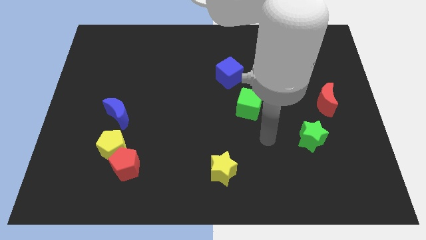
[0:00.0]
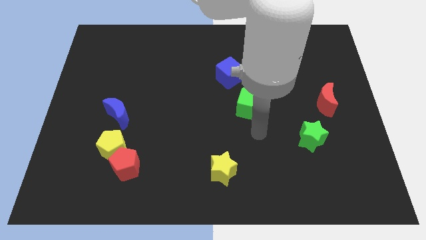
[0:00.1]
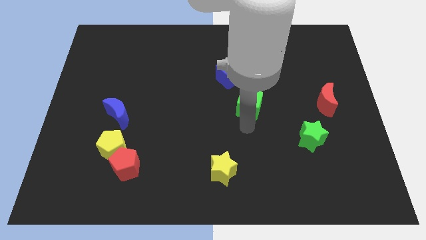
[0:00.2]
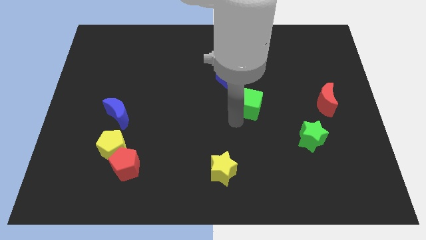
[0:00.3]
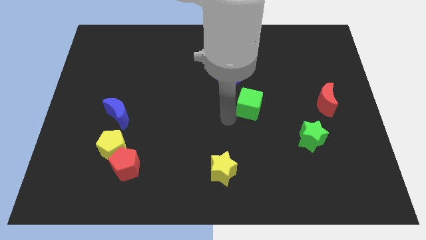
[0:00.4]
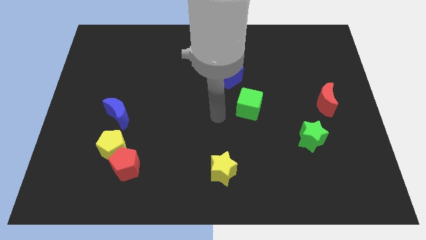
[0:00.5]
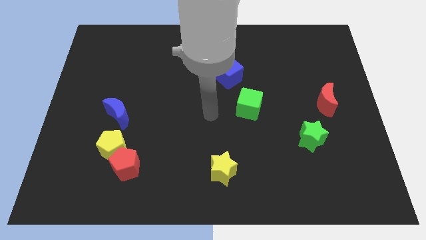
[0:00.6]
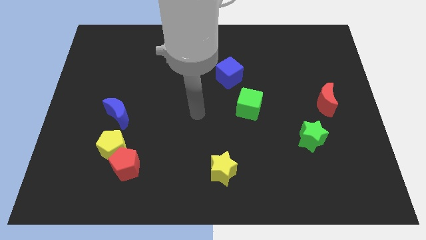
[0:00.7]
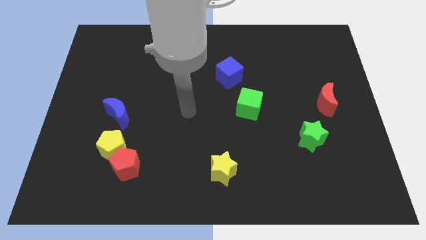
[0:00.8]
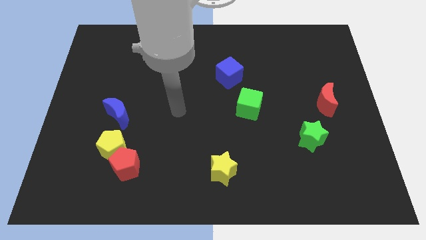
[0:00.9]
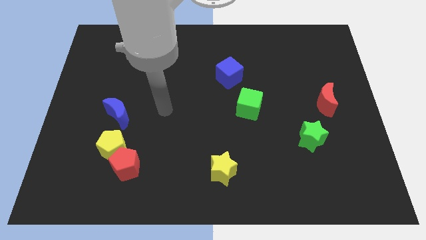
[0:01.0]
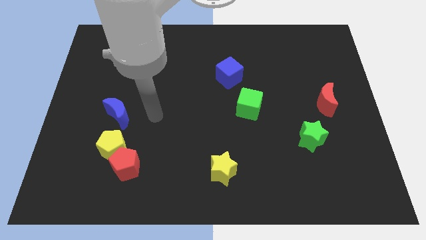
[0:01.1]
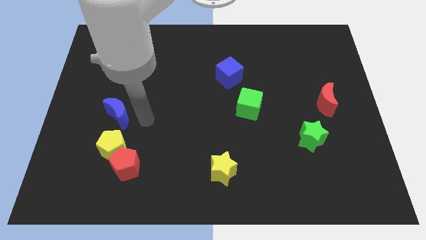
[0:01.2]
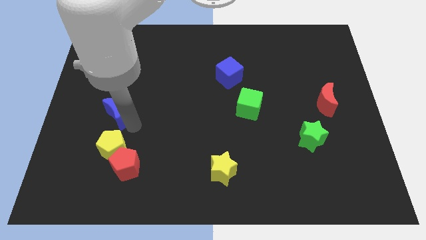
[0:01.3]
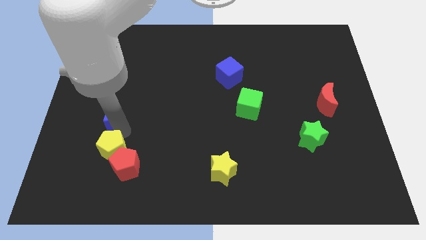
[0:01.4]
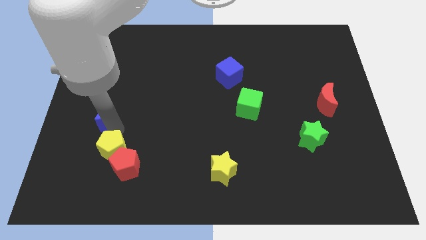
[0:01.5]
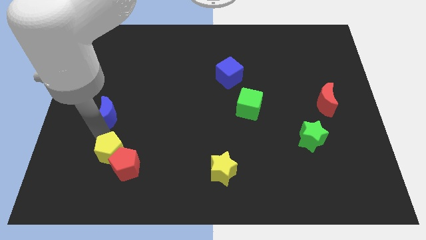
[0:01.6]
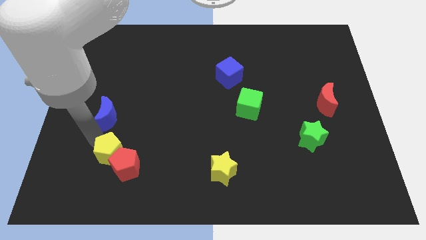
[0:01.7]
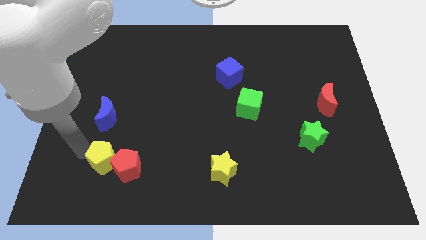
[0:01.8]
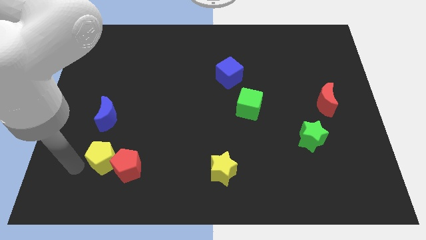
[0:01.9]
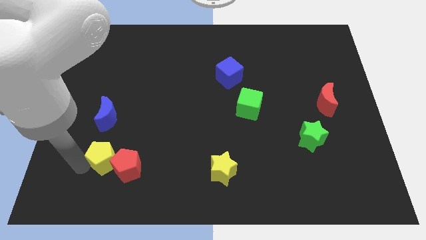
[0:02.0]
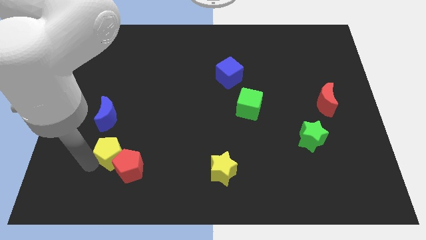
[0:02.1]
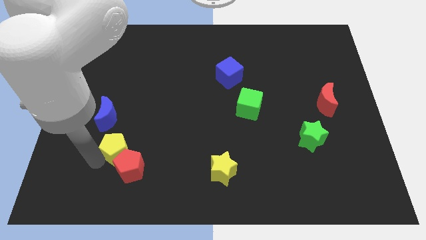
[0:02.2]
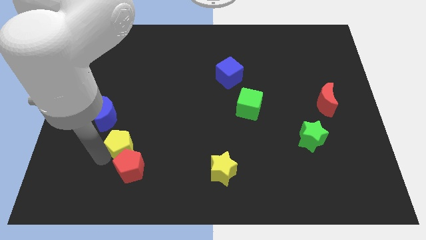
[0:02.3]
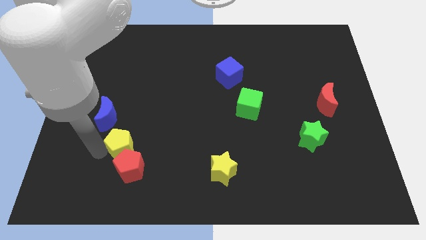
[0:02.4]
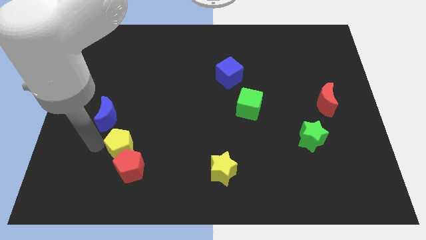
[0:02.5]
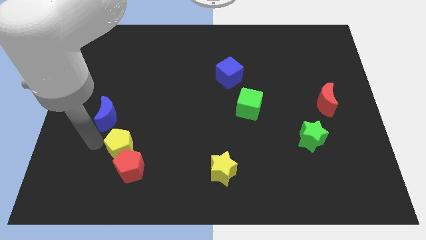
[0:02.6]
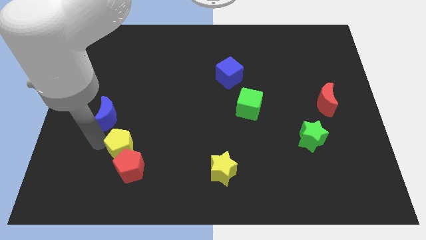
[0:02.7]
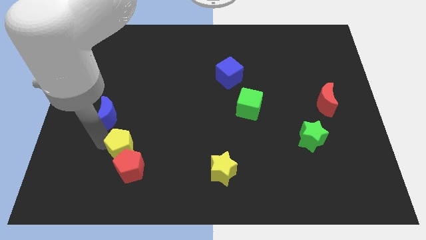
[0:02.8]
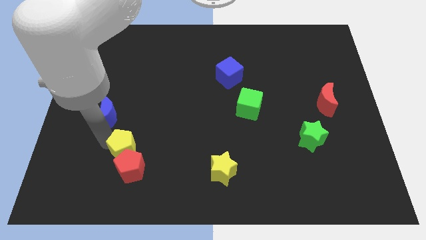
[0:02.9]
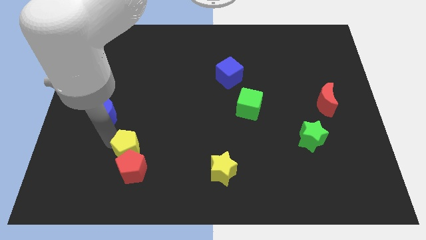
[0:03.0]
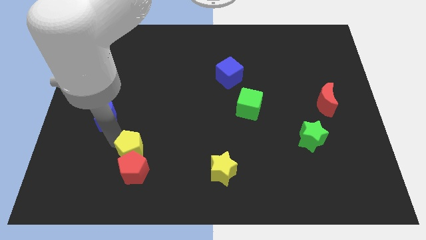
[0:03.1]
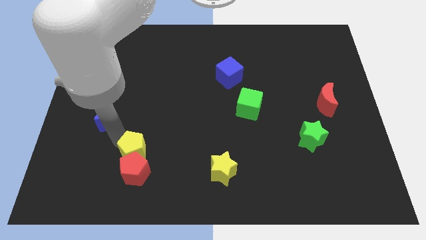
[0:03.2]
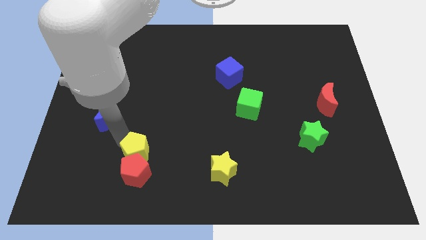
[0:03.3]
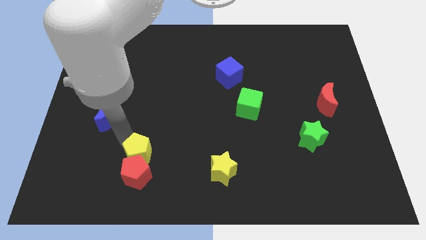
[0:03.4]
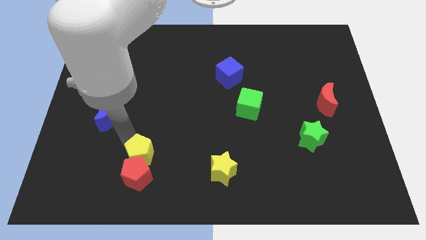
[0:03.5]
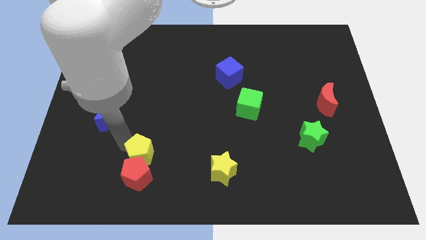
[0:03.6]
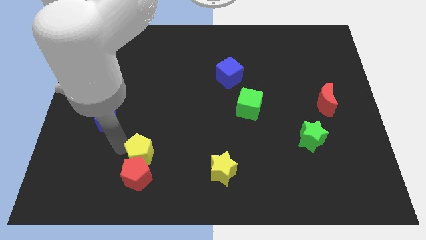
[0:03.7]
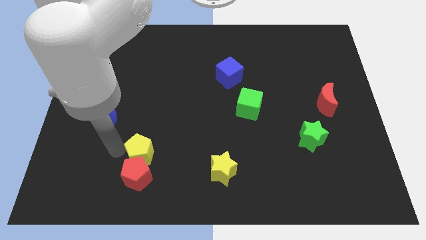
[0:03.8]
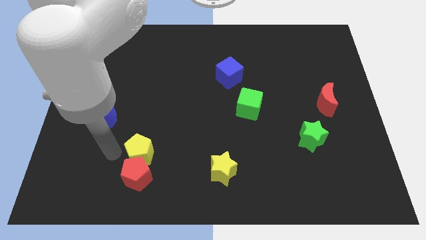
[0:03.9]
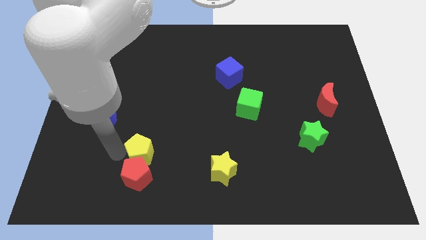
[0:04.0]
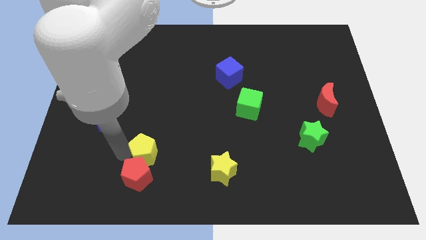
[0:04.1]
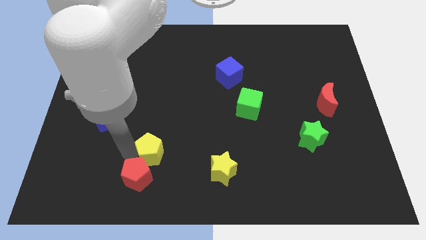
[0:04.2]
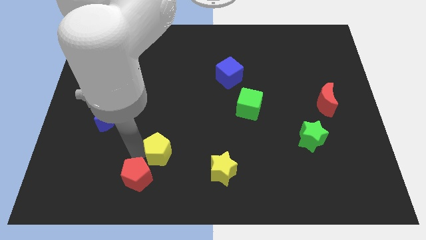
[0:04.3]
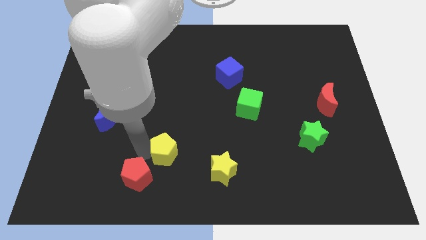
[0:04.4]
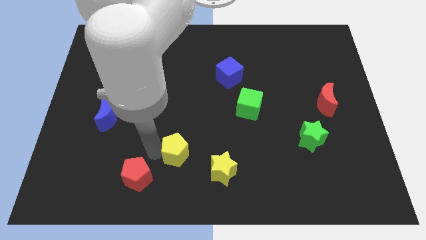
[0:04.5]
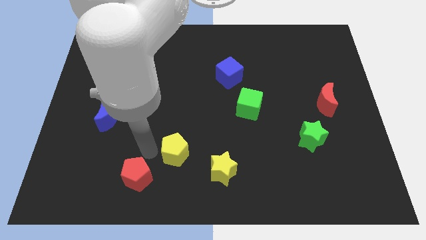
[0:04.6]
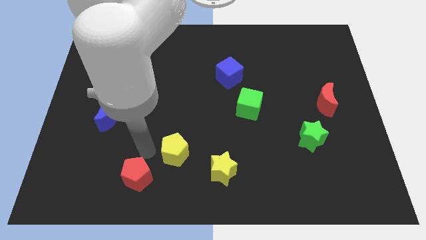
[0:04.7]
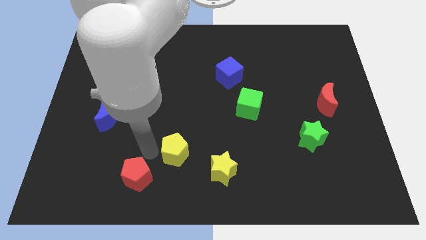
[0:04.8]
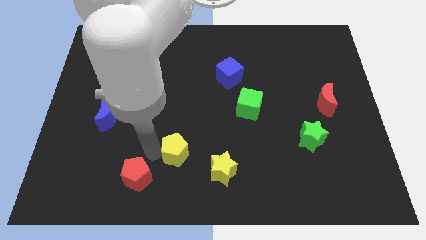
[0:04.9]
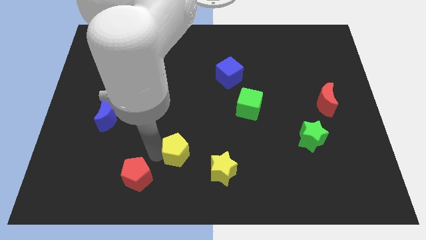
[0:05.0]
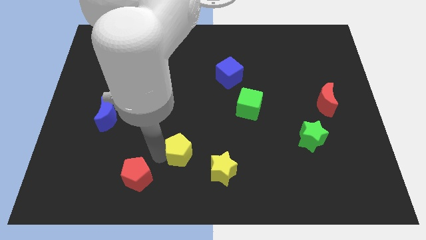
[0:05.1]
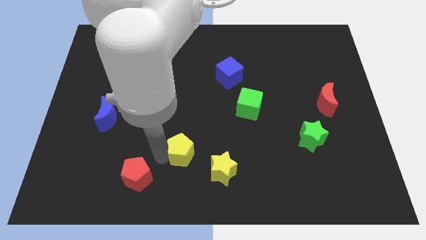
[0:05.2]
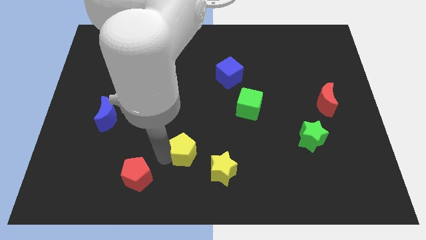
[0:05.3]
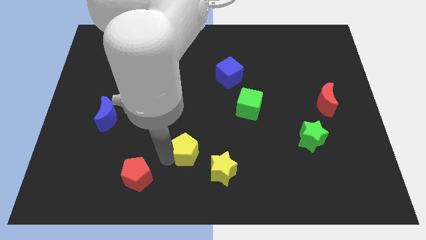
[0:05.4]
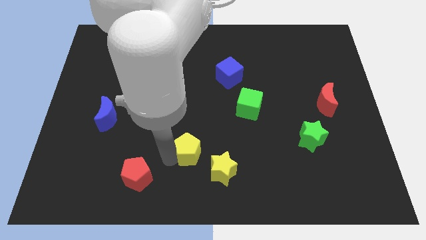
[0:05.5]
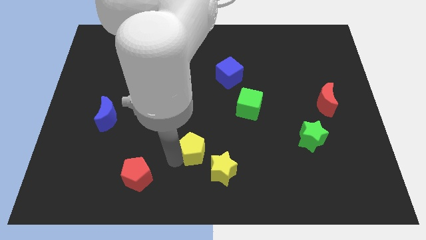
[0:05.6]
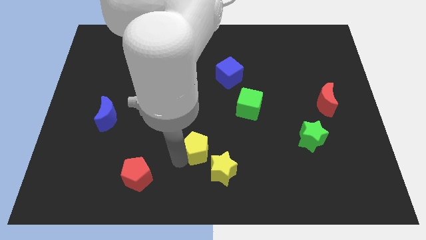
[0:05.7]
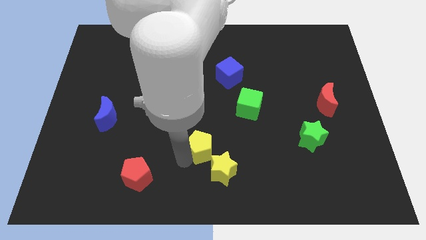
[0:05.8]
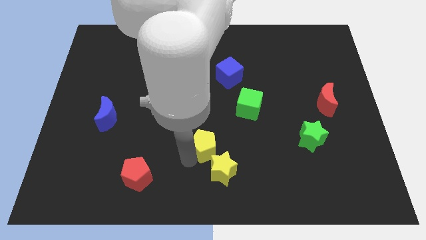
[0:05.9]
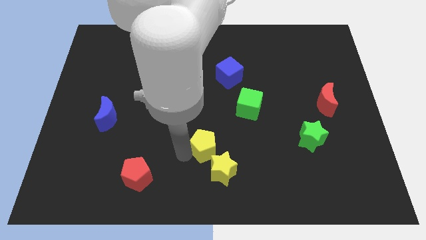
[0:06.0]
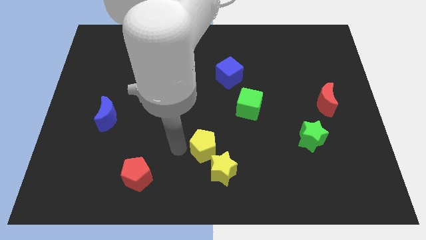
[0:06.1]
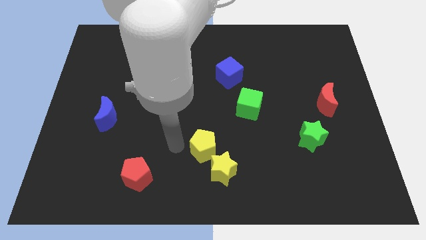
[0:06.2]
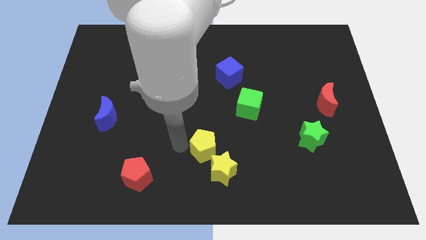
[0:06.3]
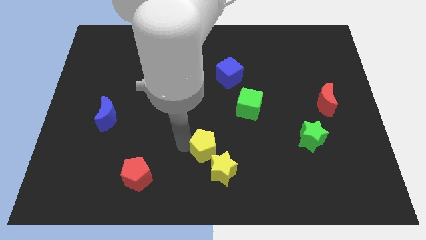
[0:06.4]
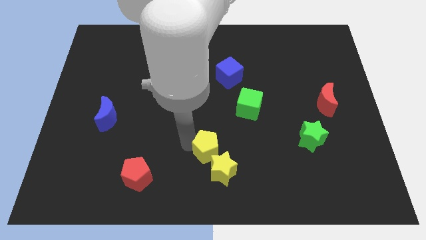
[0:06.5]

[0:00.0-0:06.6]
push the yellow pentagon right

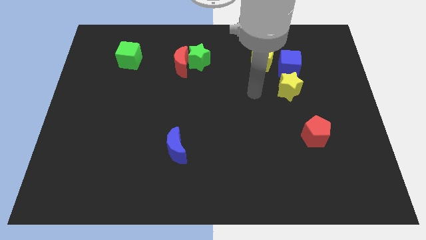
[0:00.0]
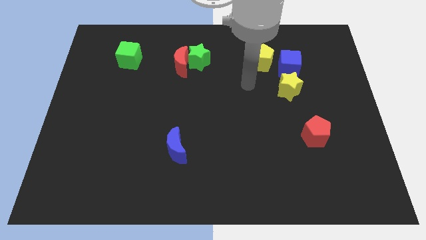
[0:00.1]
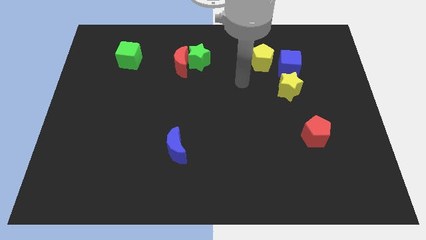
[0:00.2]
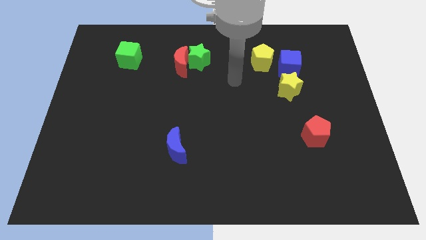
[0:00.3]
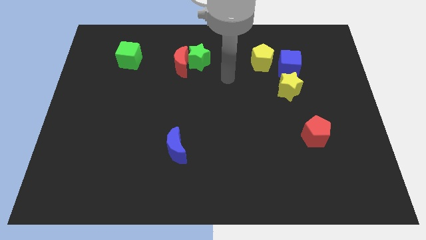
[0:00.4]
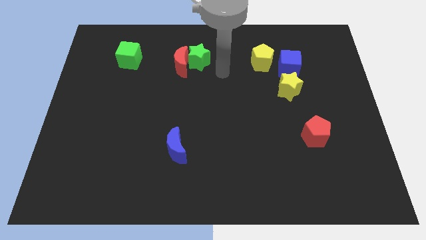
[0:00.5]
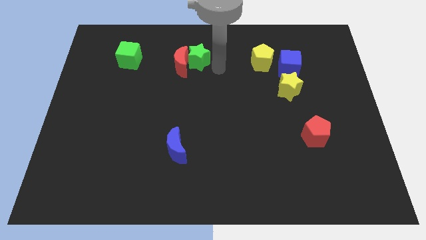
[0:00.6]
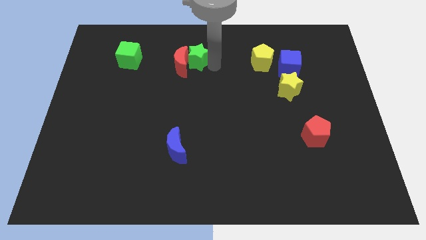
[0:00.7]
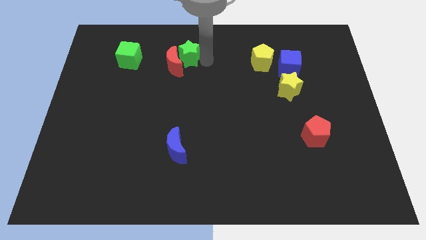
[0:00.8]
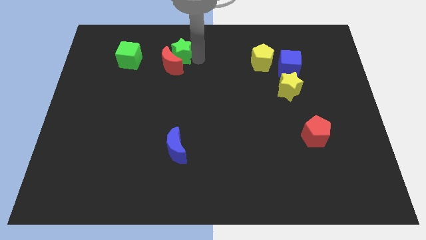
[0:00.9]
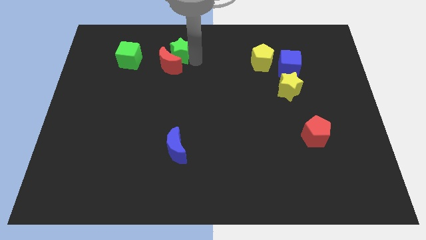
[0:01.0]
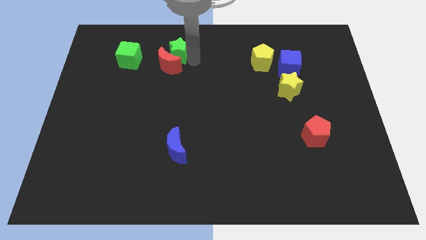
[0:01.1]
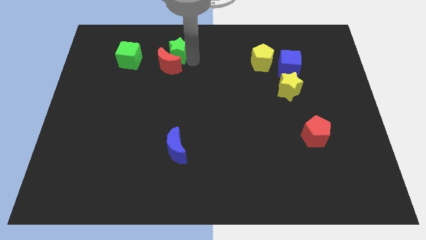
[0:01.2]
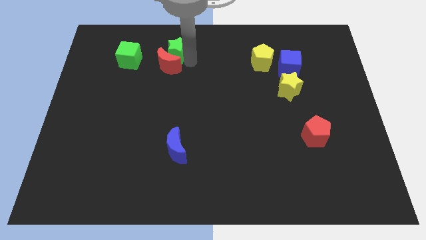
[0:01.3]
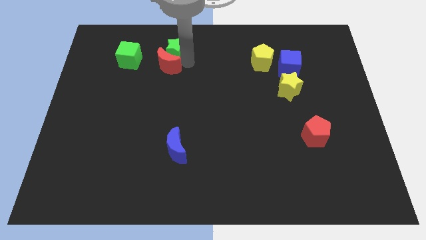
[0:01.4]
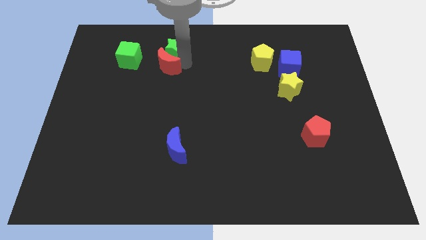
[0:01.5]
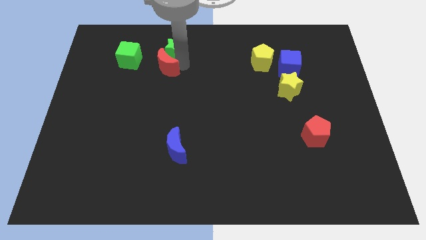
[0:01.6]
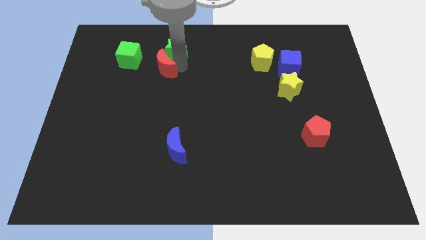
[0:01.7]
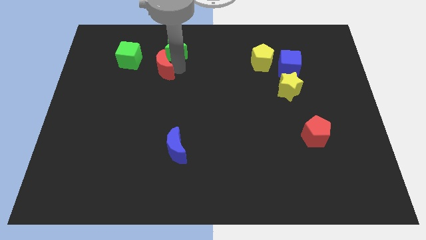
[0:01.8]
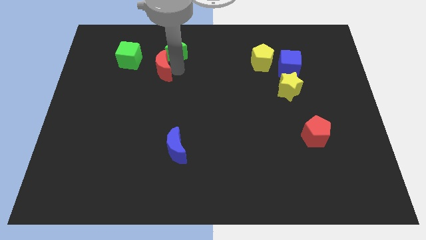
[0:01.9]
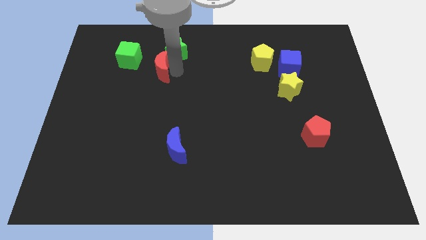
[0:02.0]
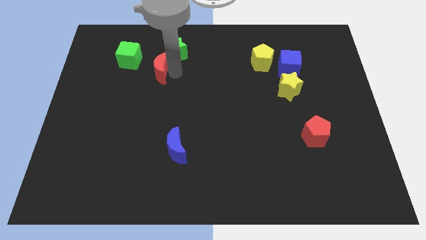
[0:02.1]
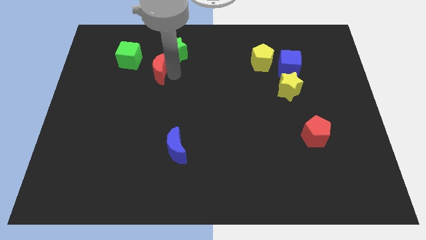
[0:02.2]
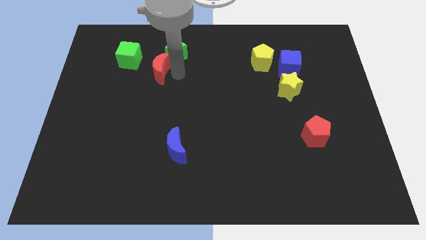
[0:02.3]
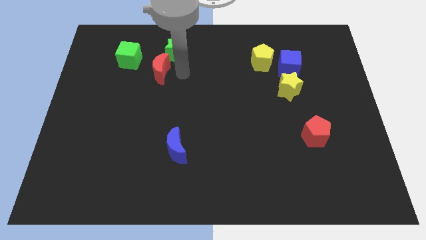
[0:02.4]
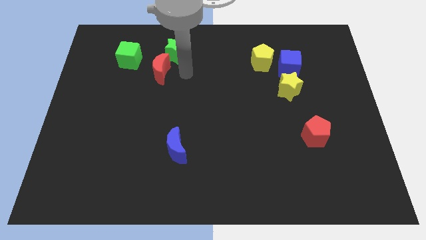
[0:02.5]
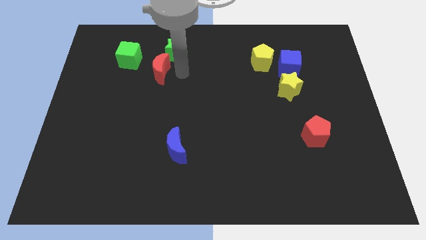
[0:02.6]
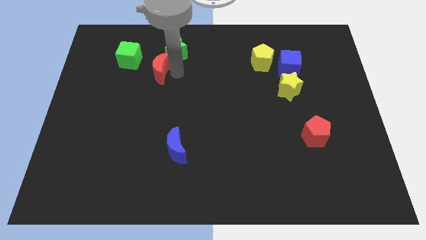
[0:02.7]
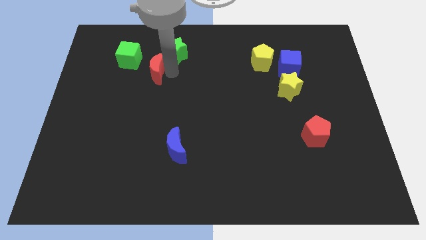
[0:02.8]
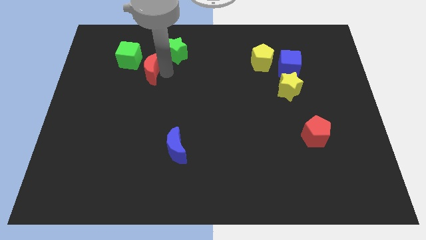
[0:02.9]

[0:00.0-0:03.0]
move the red moon a bit to the left
